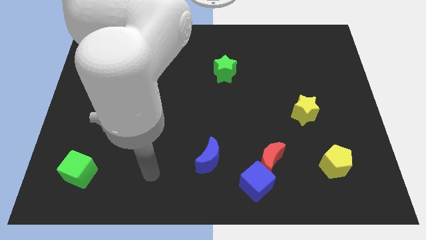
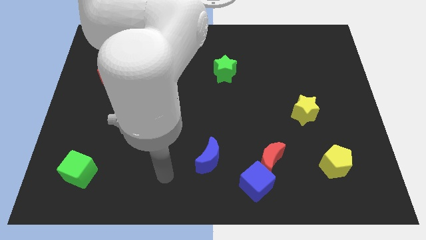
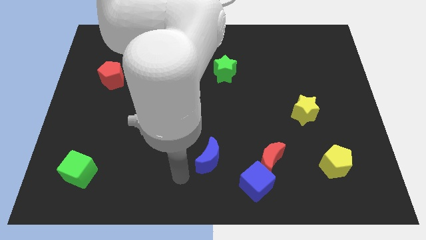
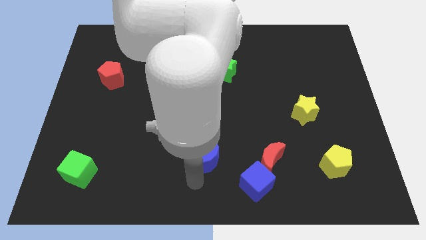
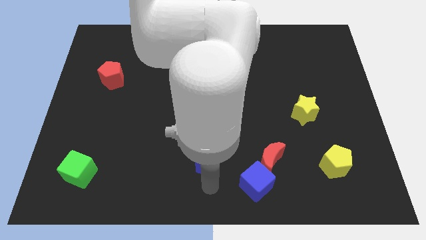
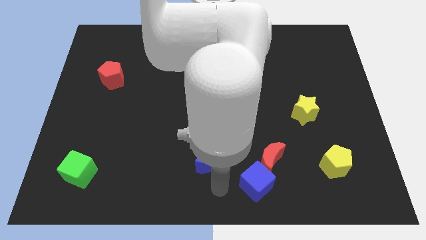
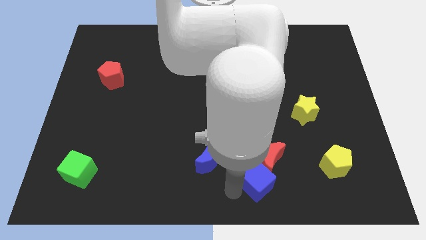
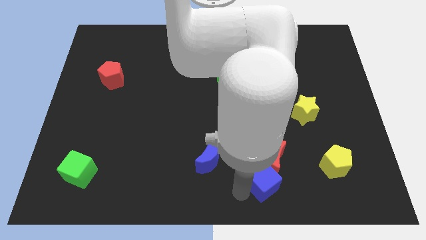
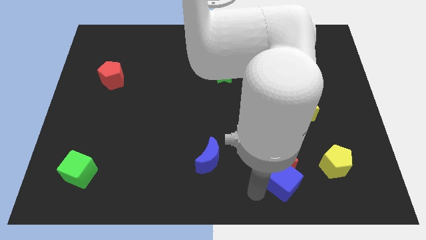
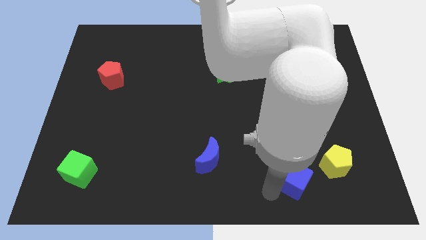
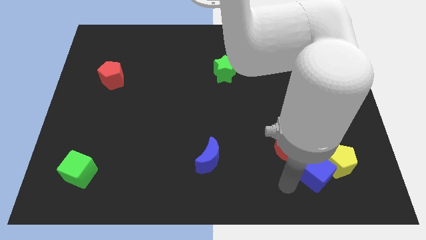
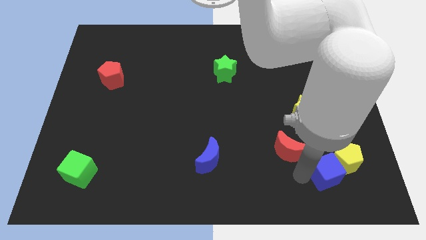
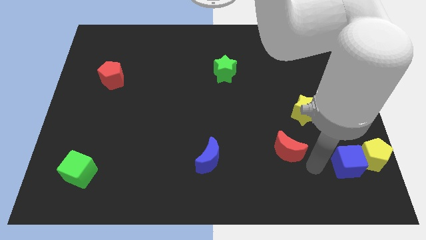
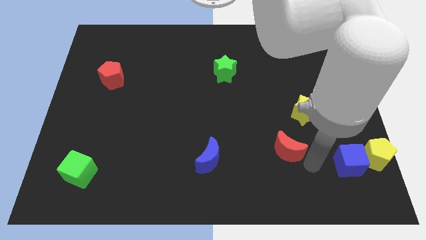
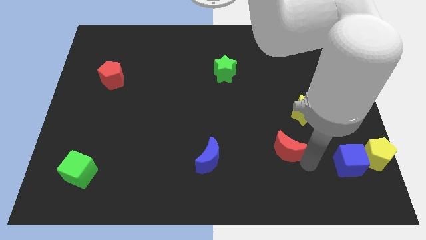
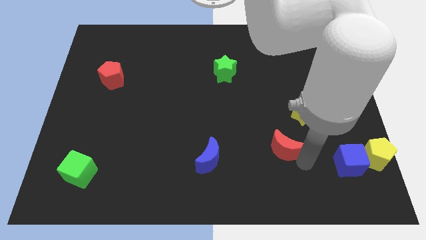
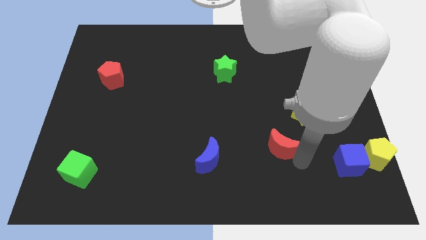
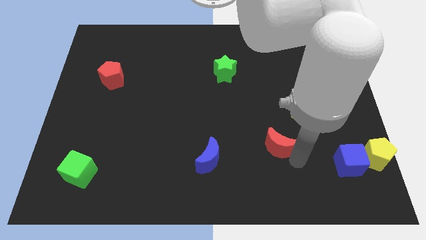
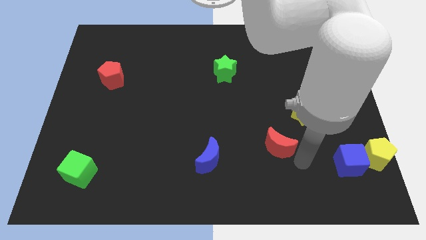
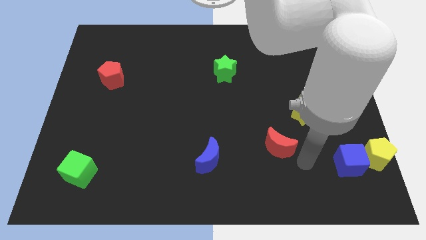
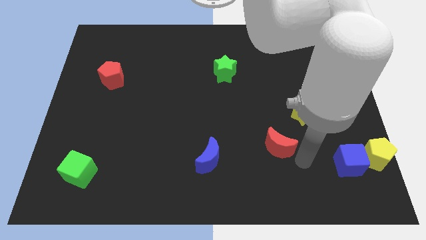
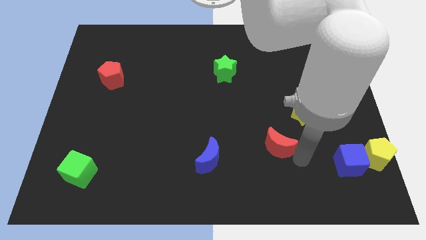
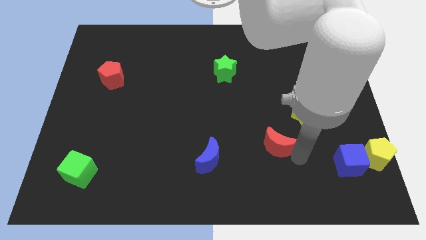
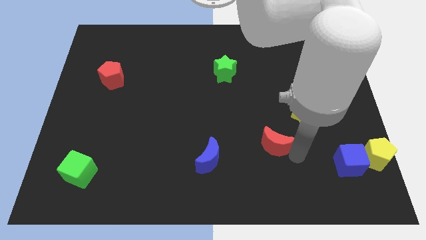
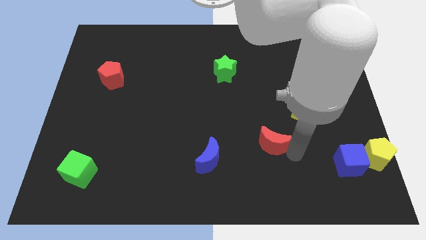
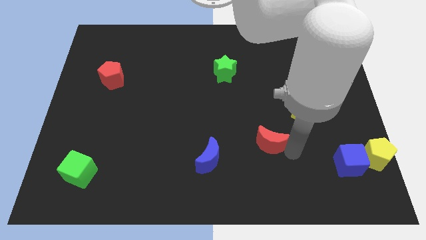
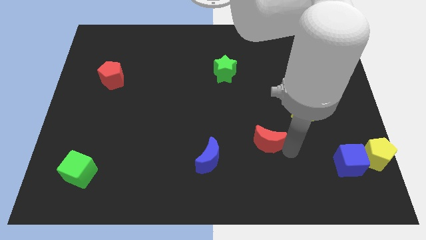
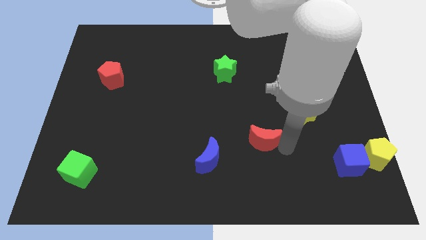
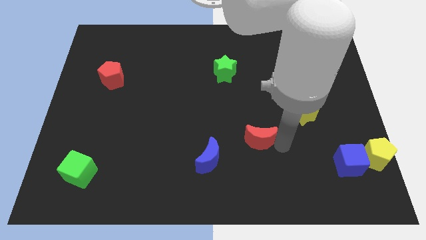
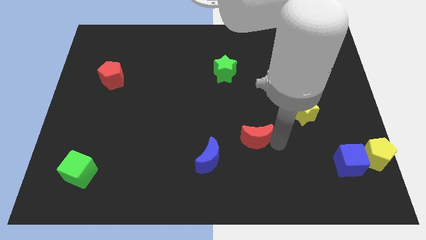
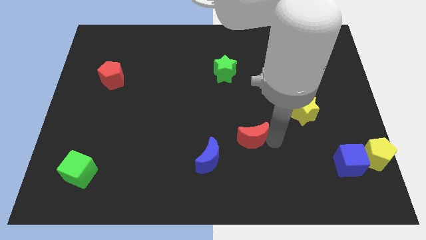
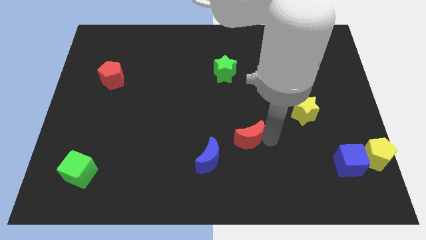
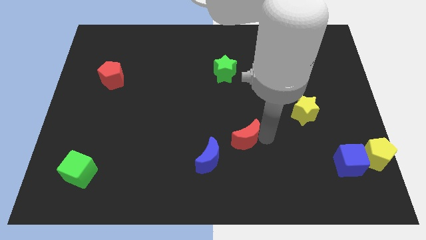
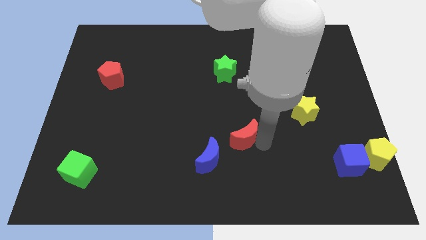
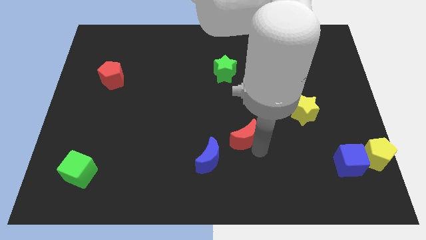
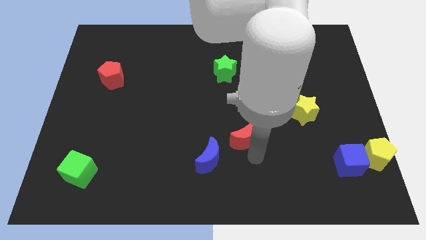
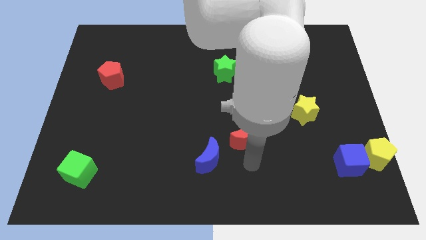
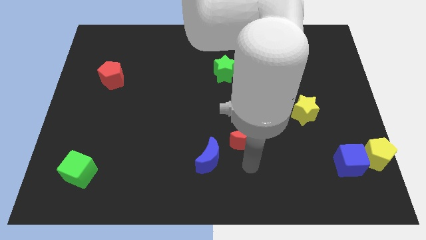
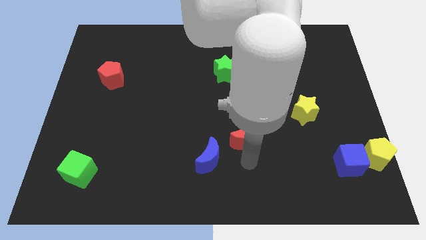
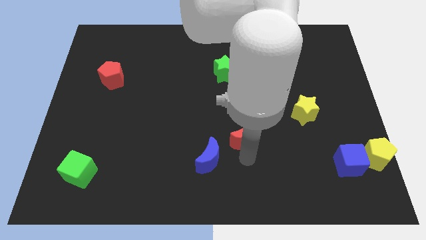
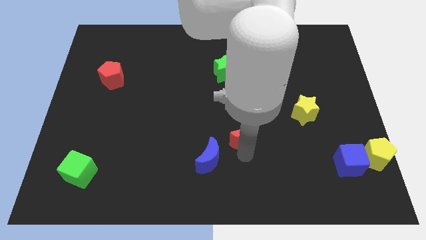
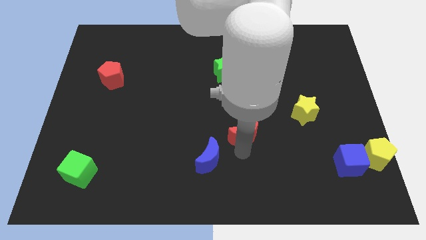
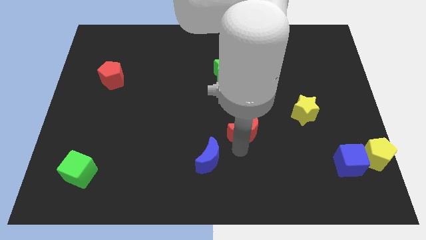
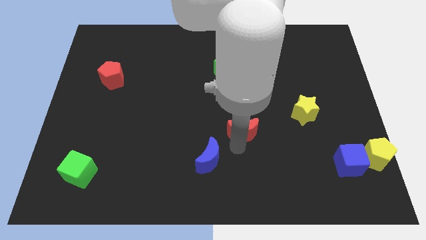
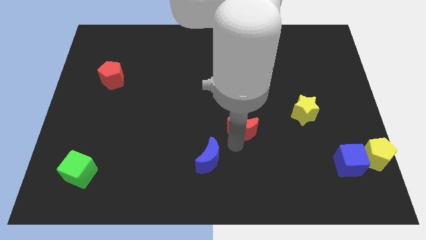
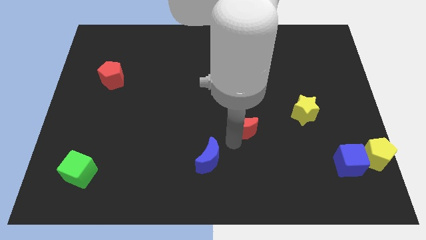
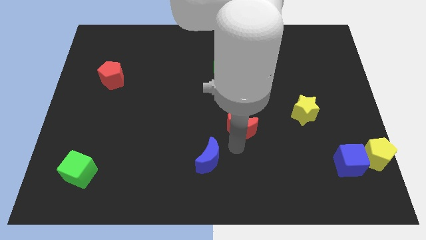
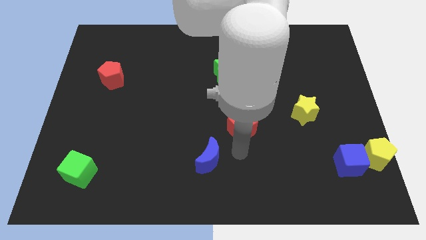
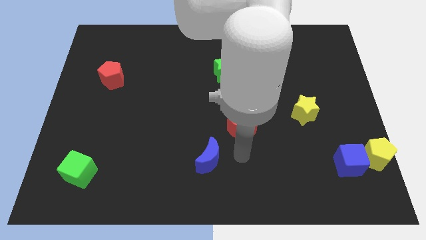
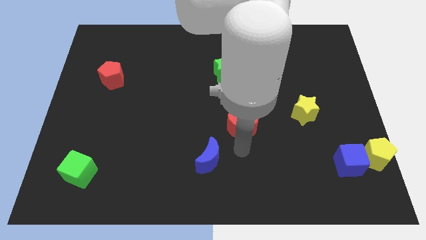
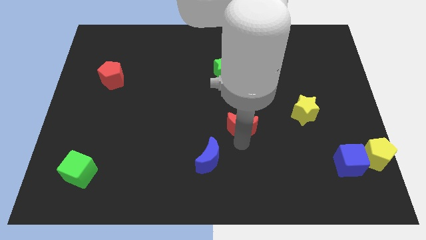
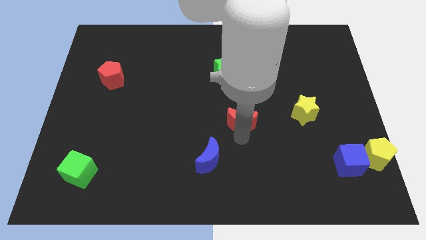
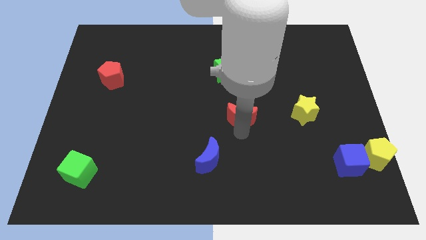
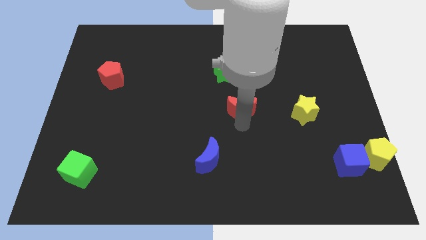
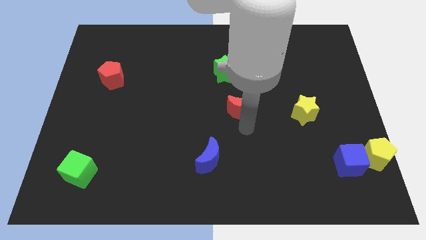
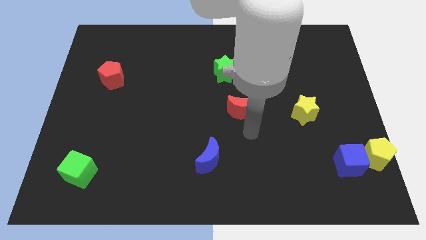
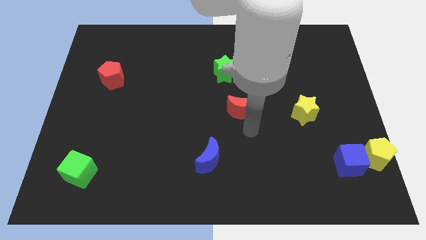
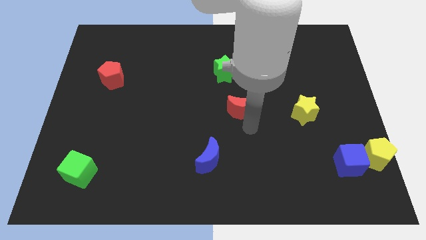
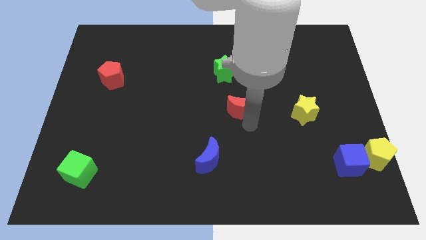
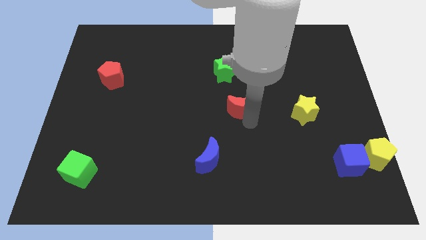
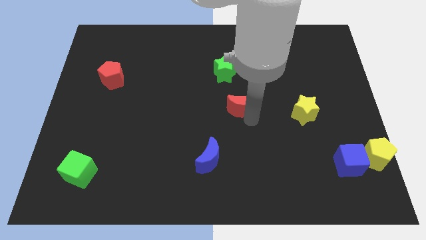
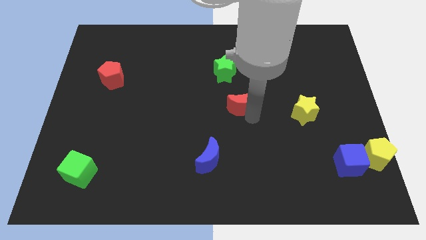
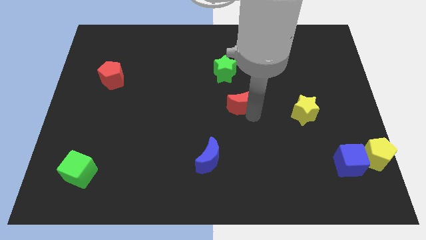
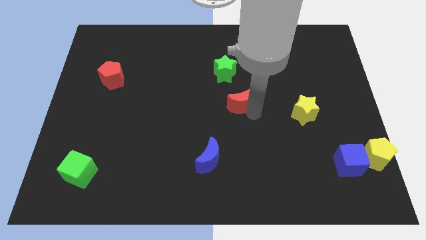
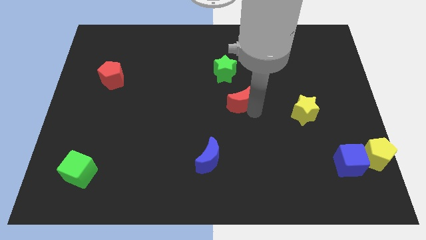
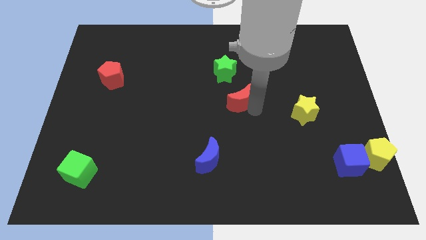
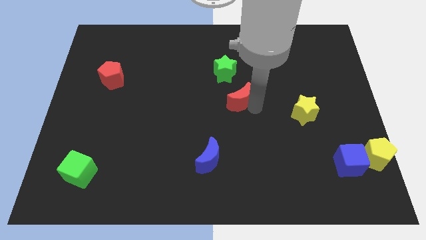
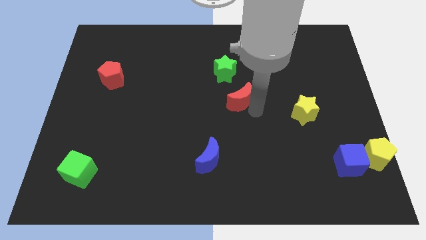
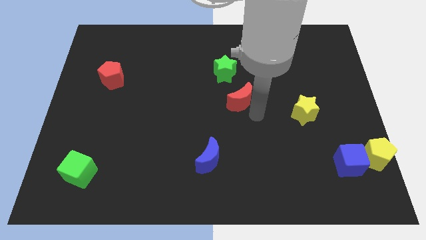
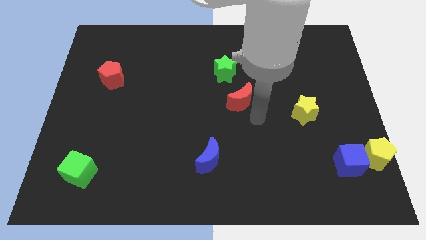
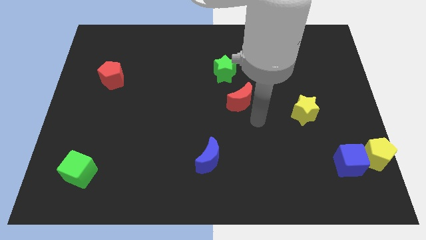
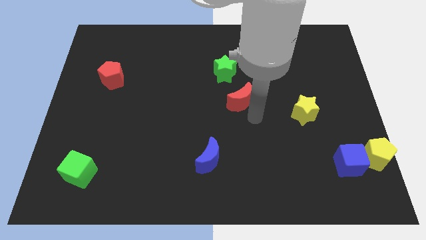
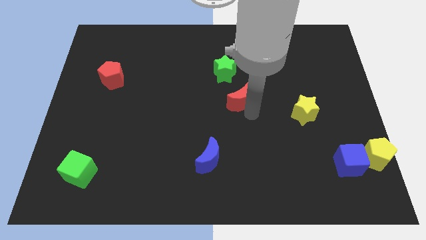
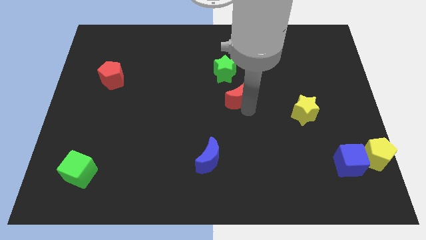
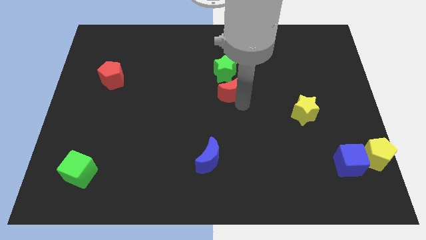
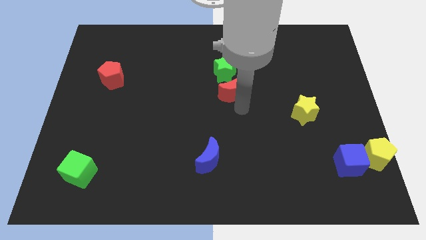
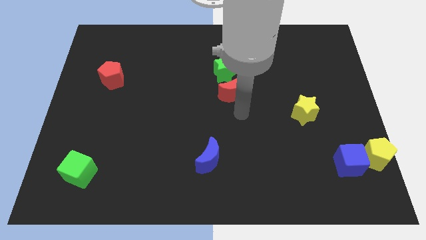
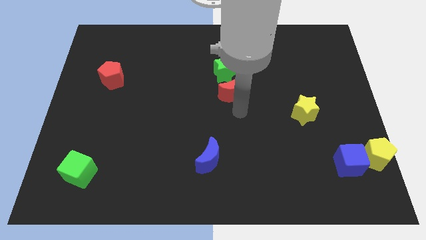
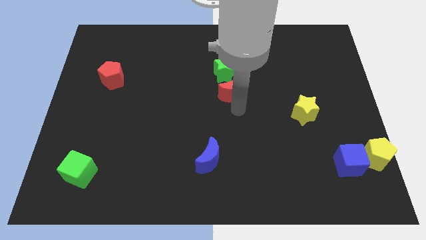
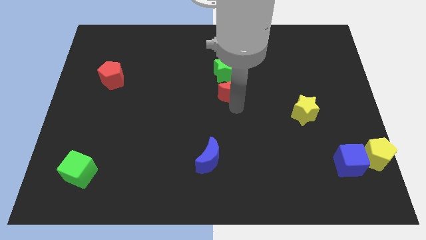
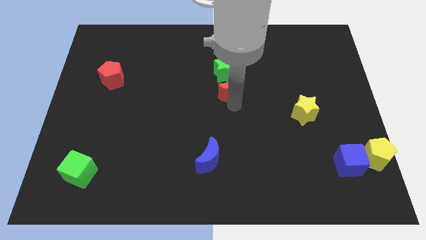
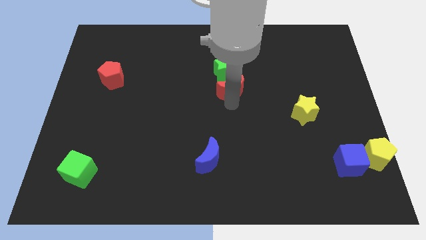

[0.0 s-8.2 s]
push the red moon towards the green star
